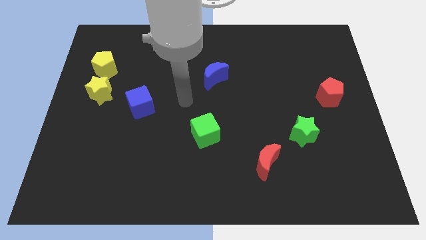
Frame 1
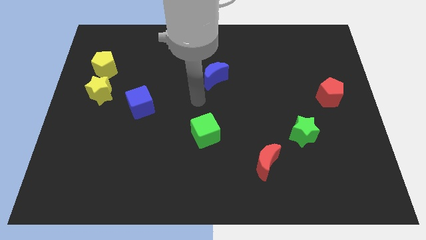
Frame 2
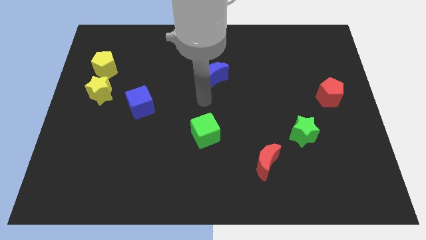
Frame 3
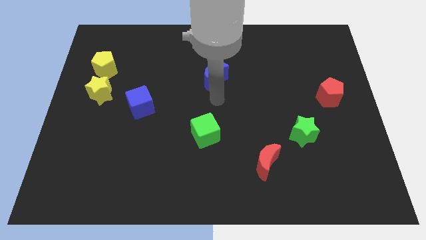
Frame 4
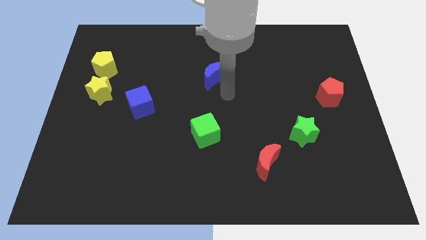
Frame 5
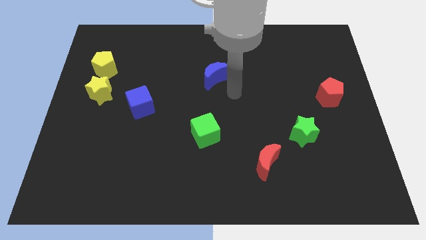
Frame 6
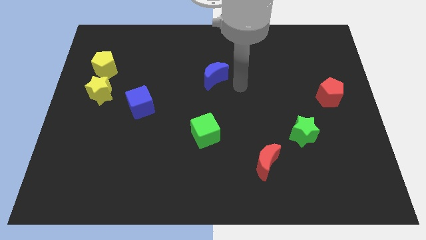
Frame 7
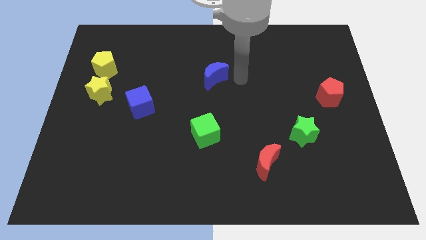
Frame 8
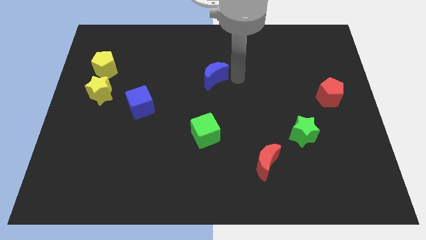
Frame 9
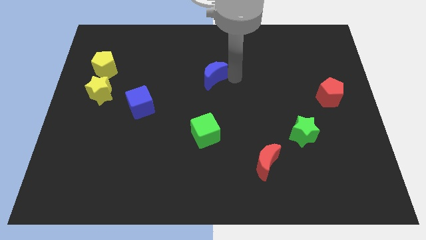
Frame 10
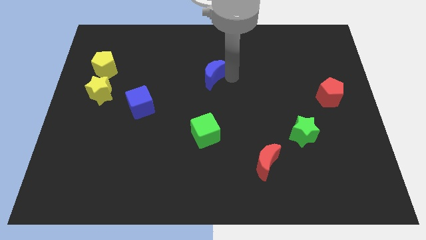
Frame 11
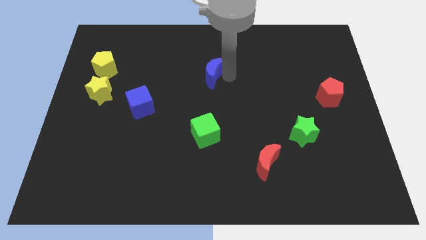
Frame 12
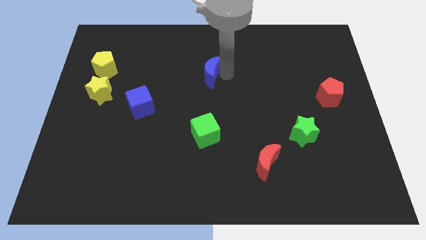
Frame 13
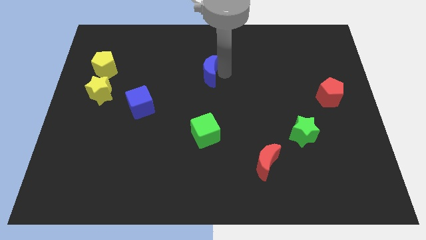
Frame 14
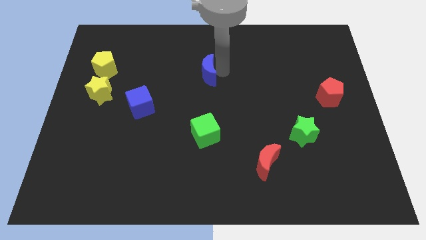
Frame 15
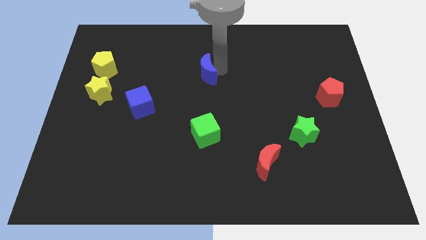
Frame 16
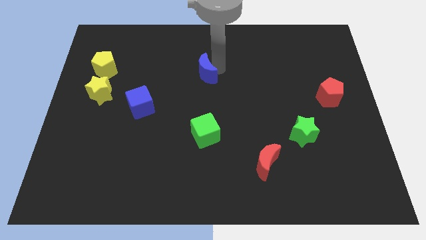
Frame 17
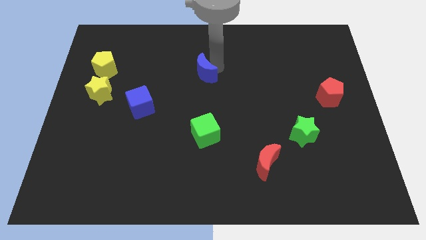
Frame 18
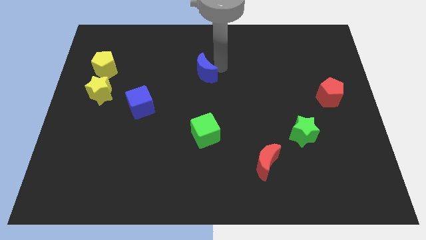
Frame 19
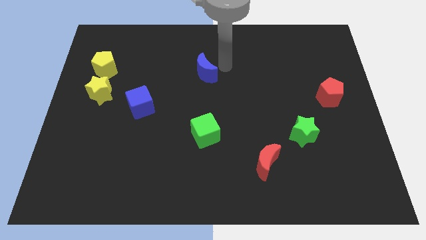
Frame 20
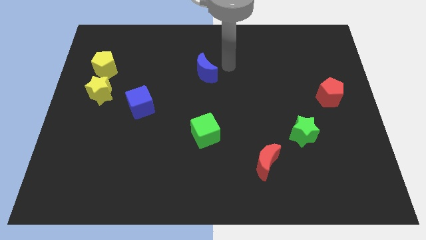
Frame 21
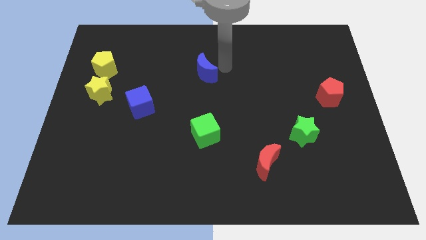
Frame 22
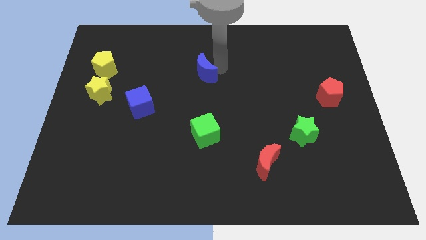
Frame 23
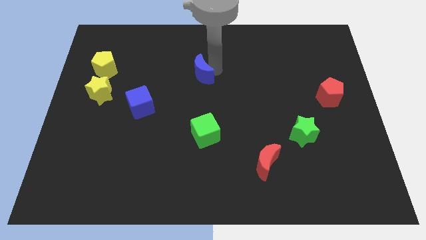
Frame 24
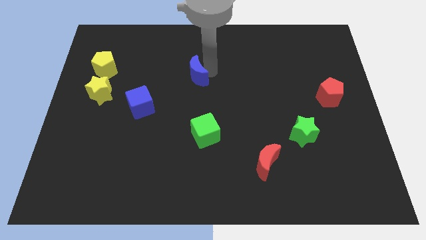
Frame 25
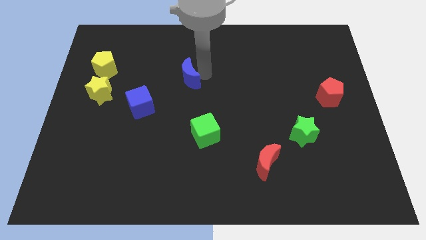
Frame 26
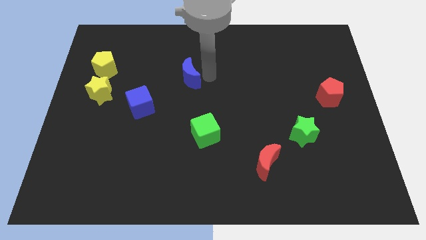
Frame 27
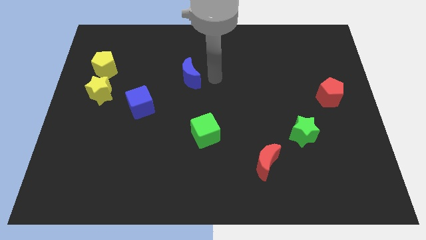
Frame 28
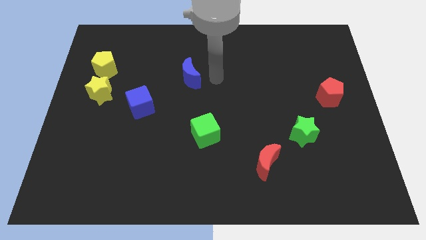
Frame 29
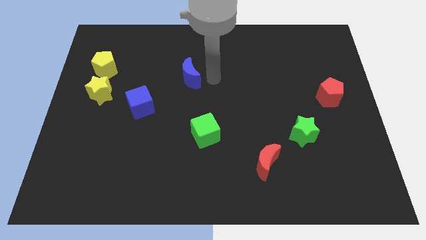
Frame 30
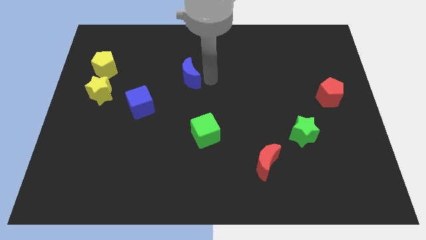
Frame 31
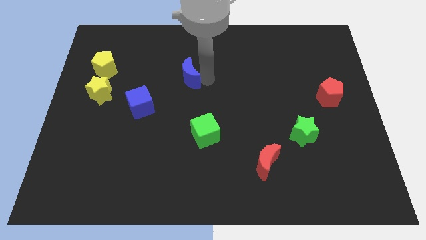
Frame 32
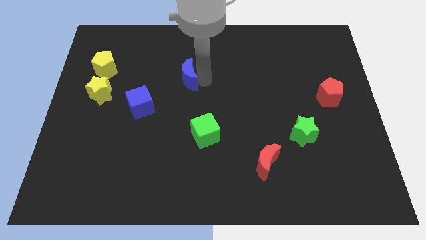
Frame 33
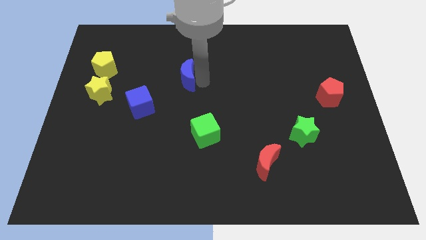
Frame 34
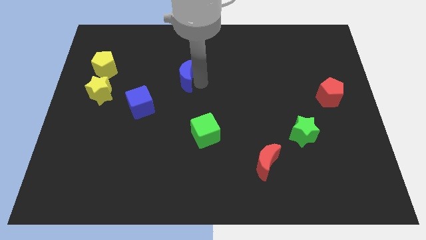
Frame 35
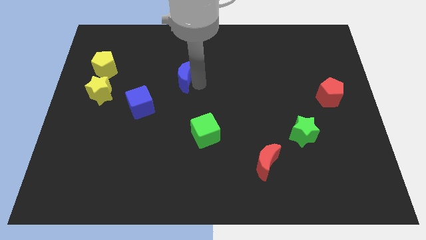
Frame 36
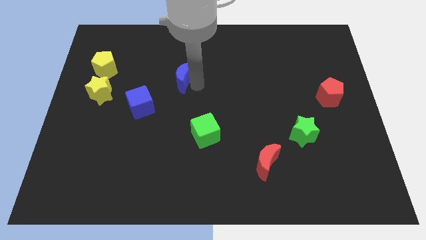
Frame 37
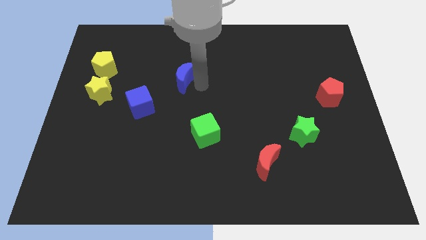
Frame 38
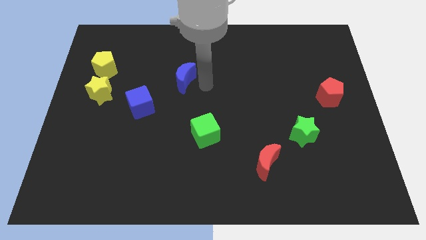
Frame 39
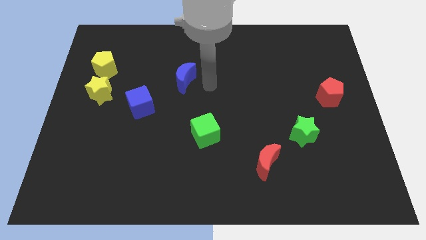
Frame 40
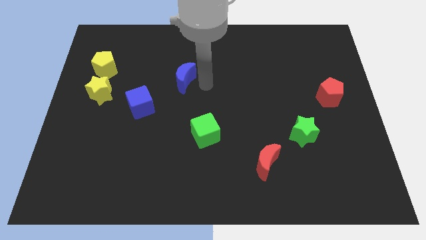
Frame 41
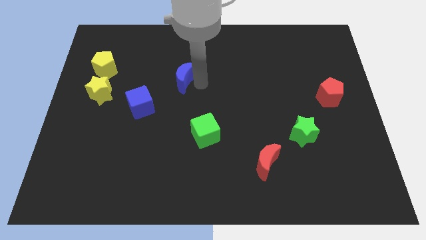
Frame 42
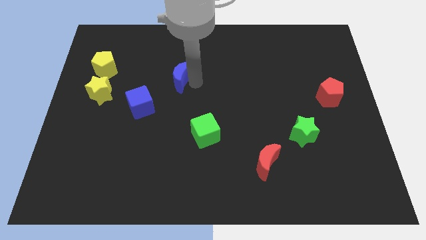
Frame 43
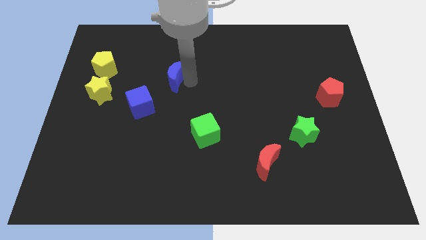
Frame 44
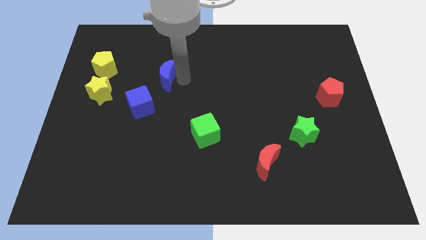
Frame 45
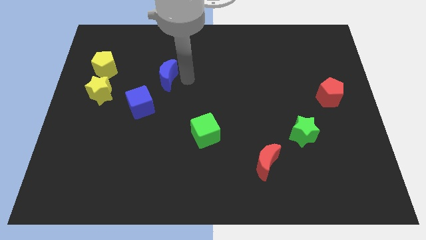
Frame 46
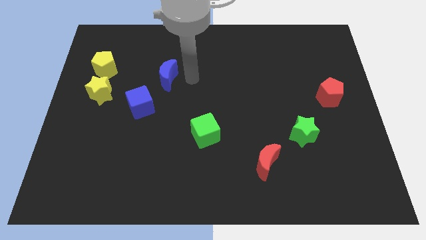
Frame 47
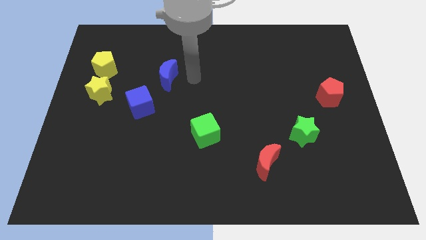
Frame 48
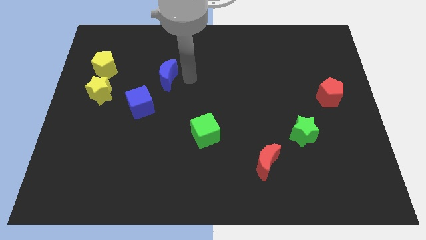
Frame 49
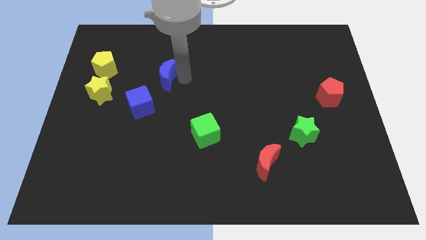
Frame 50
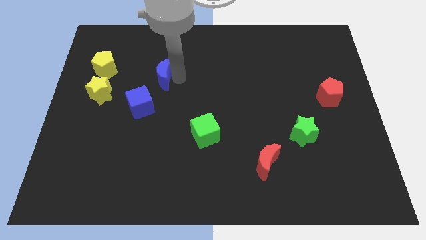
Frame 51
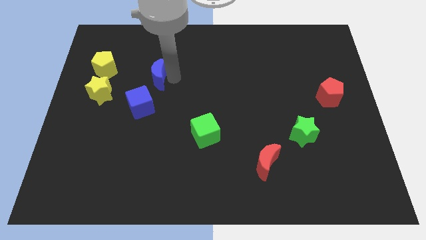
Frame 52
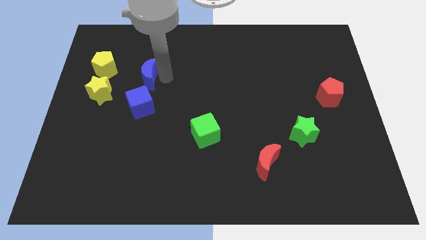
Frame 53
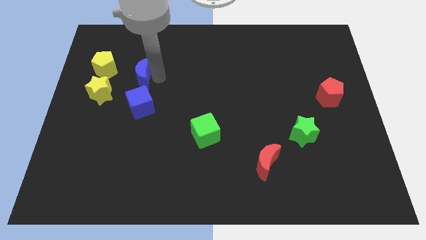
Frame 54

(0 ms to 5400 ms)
move the blue moon diagonally up and to the right of the yellow star

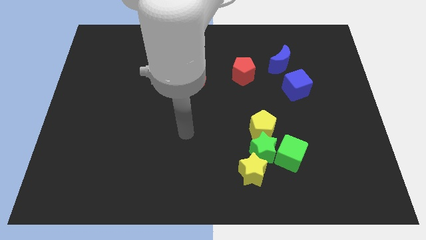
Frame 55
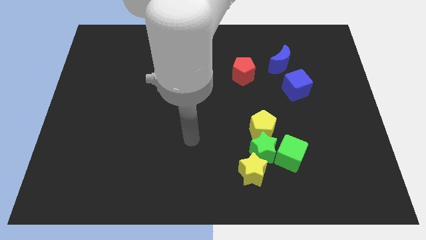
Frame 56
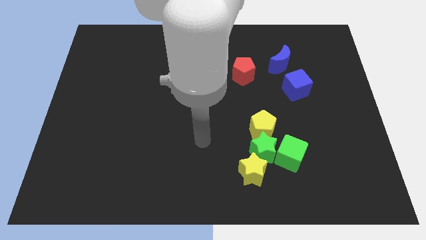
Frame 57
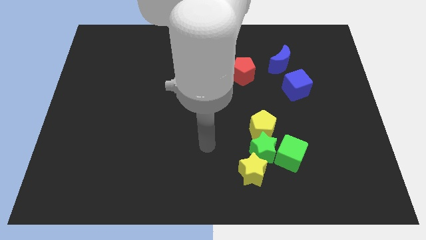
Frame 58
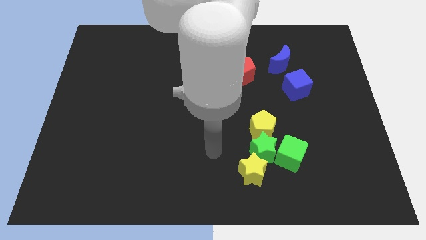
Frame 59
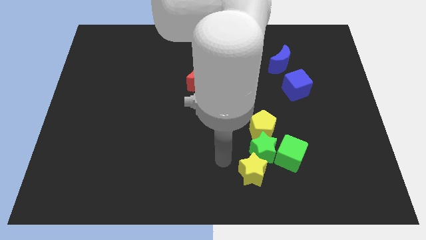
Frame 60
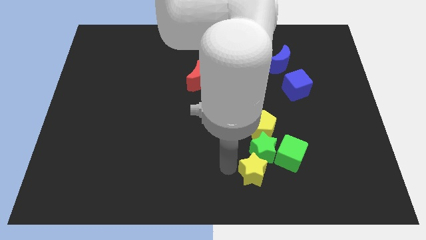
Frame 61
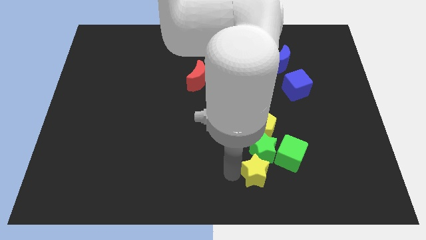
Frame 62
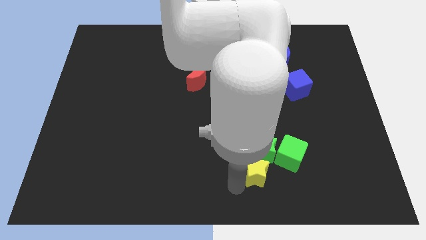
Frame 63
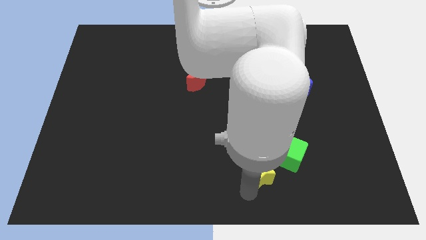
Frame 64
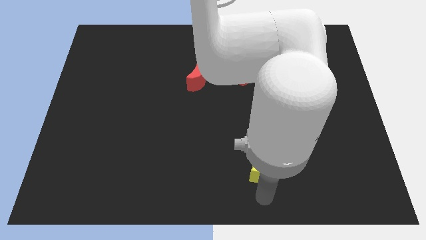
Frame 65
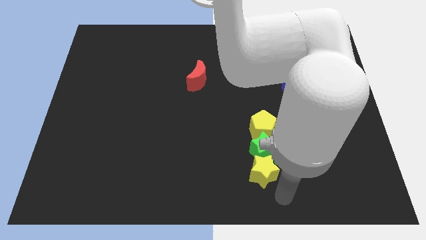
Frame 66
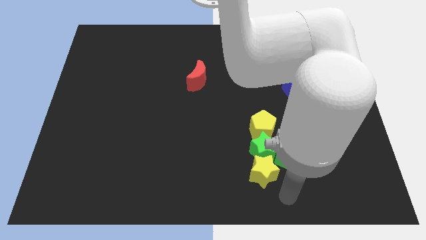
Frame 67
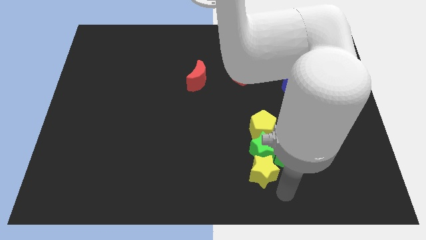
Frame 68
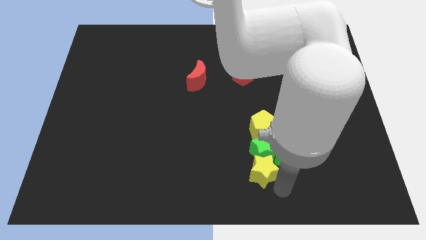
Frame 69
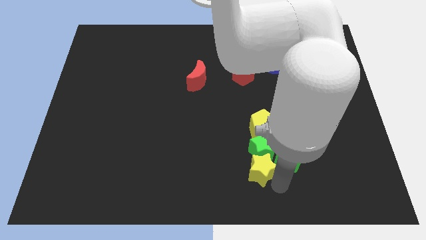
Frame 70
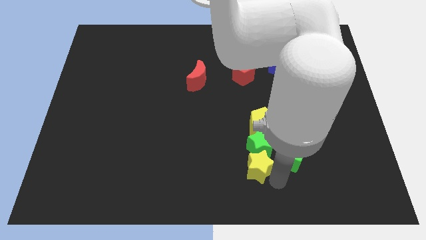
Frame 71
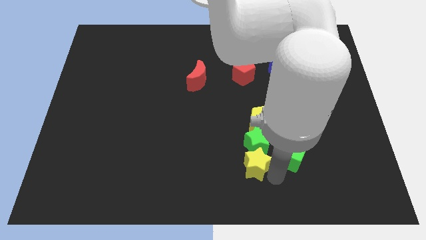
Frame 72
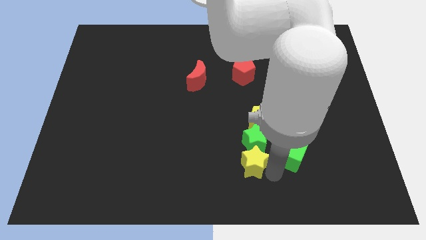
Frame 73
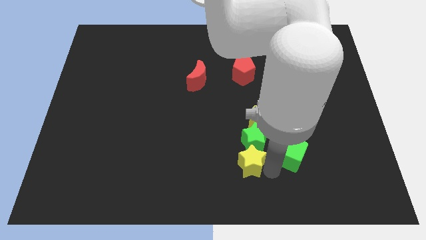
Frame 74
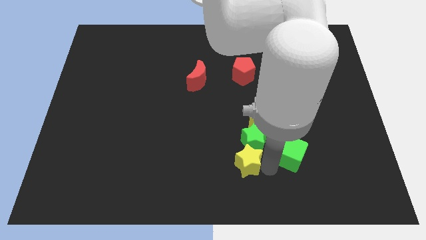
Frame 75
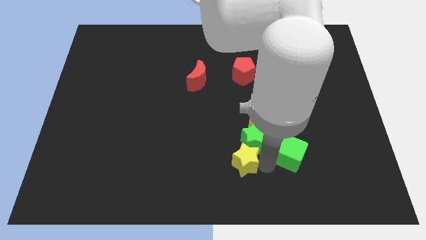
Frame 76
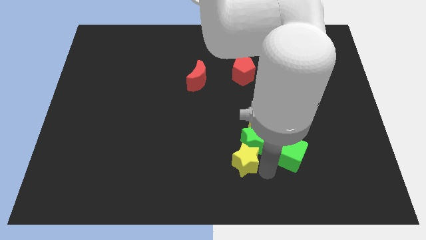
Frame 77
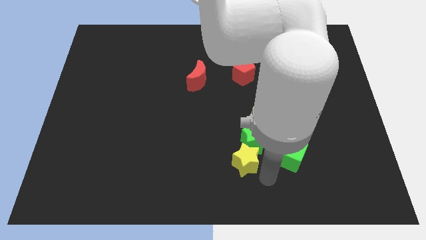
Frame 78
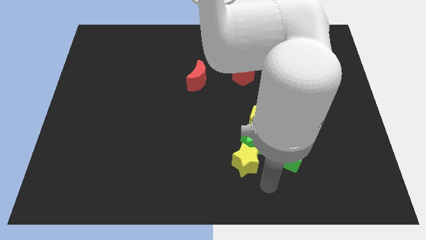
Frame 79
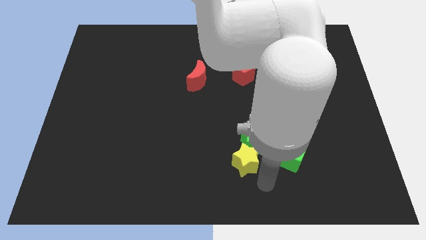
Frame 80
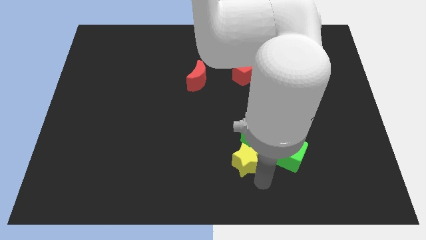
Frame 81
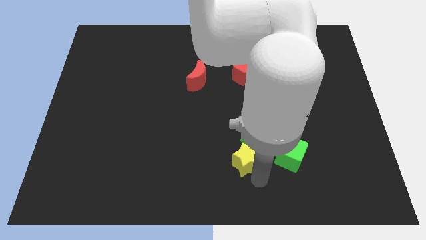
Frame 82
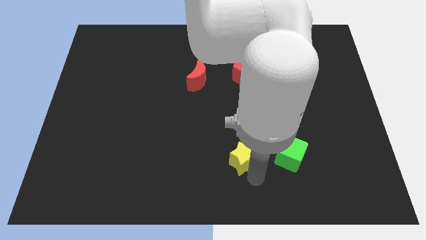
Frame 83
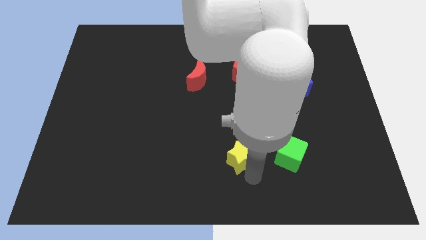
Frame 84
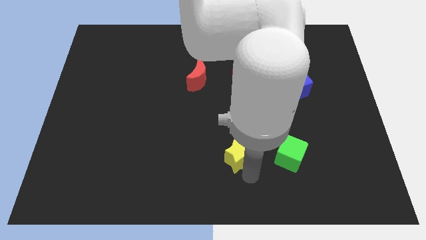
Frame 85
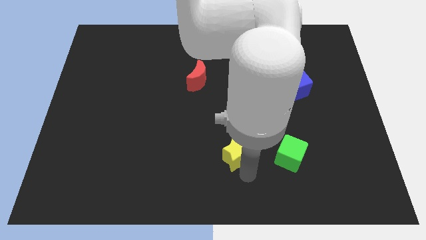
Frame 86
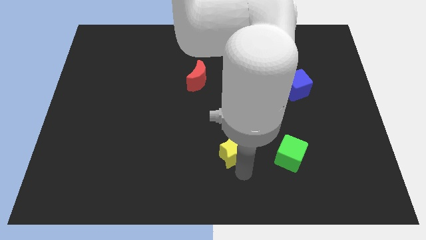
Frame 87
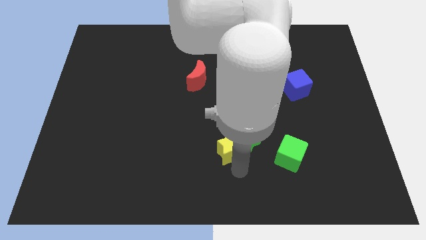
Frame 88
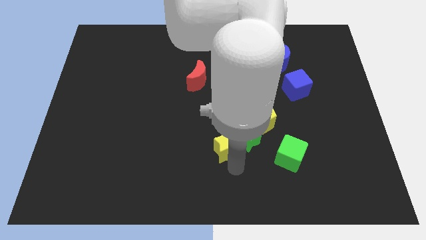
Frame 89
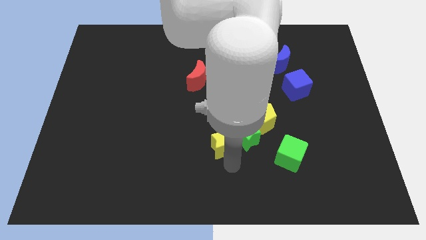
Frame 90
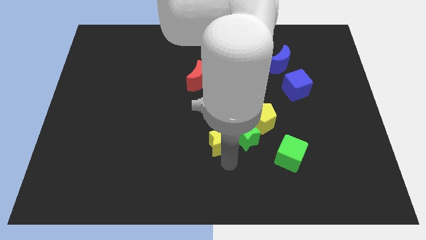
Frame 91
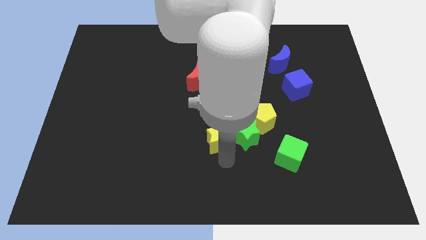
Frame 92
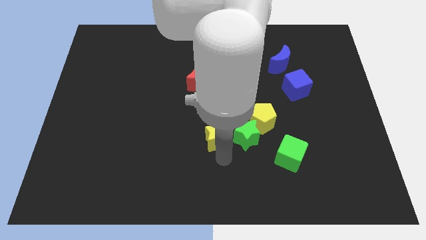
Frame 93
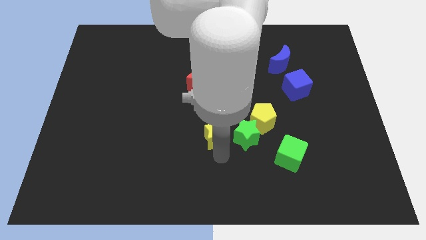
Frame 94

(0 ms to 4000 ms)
slide the yellow star to the left of the yellow pentagon
